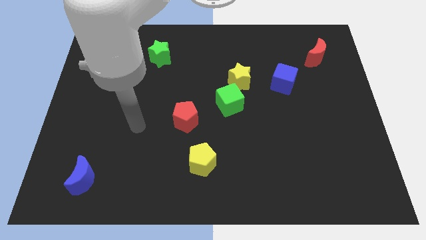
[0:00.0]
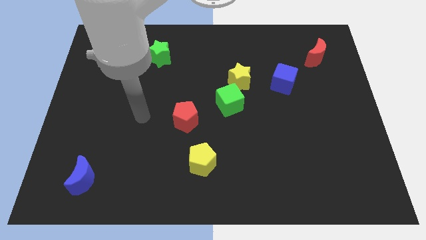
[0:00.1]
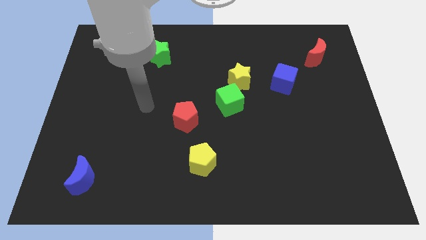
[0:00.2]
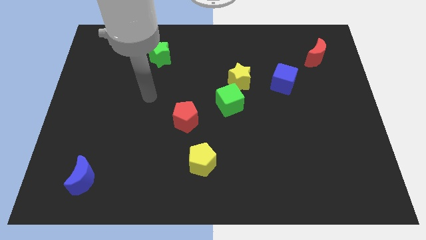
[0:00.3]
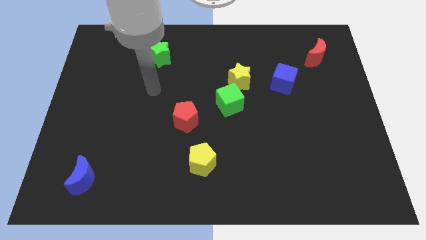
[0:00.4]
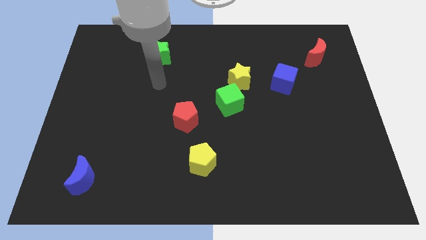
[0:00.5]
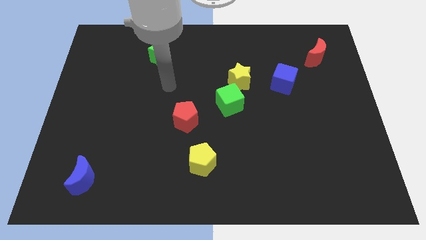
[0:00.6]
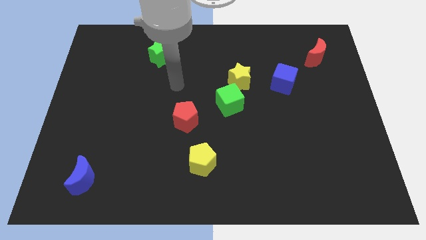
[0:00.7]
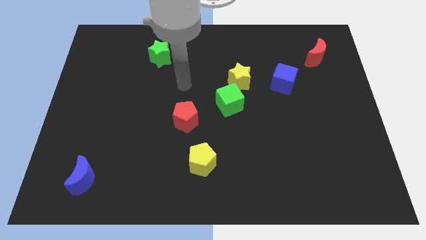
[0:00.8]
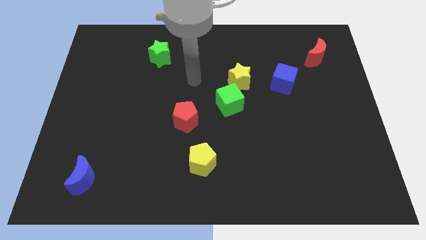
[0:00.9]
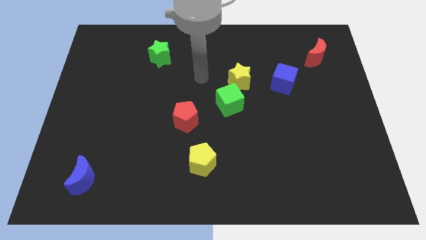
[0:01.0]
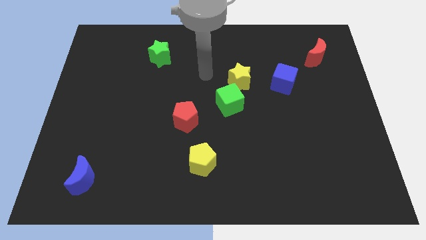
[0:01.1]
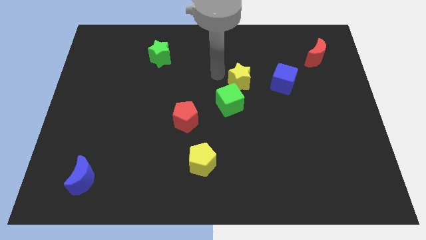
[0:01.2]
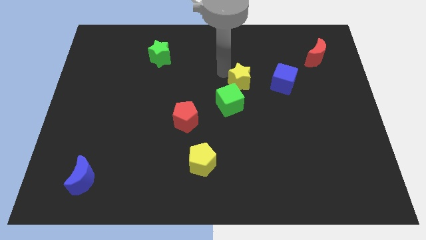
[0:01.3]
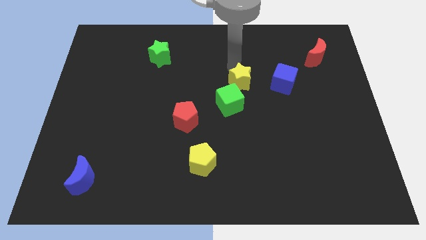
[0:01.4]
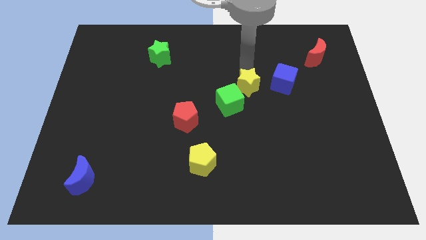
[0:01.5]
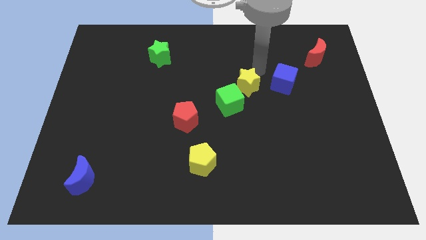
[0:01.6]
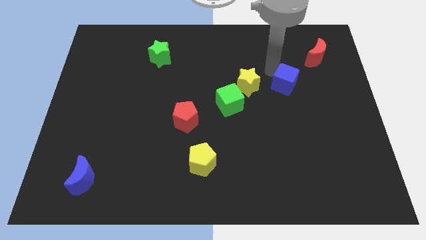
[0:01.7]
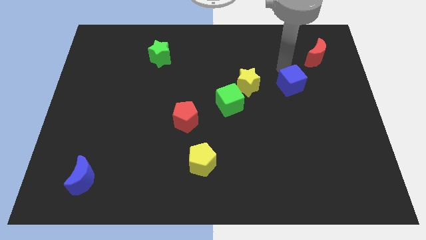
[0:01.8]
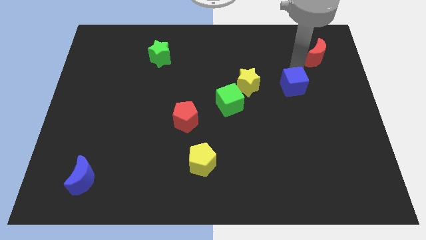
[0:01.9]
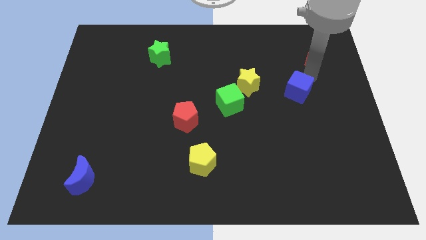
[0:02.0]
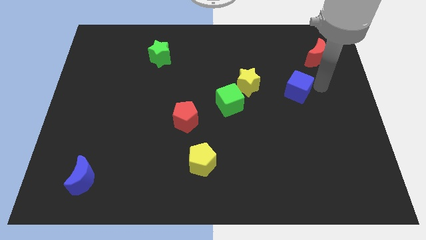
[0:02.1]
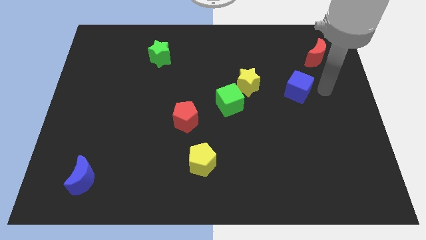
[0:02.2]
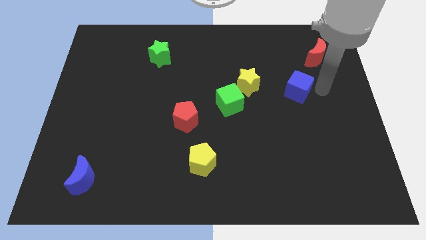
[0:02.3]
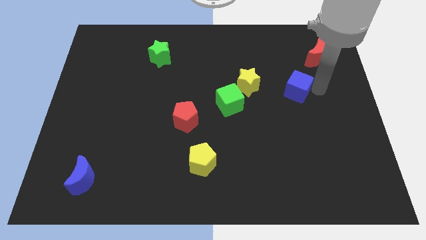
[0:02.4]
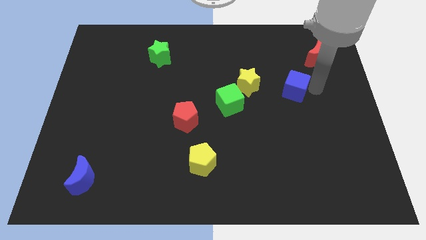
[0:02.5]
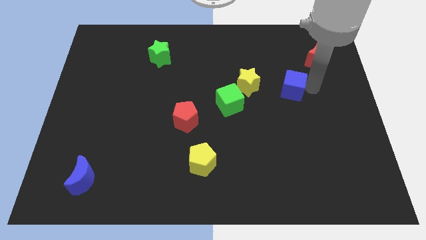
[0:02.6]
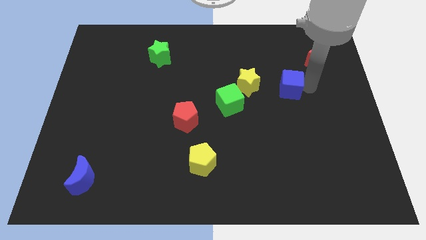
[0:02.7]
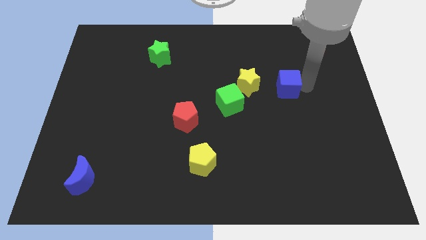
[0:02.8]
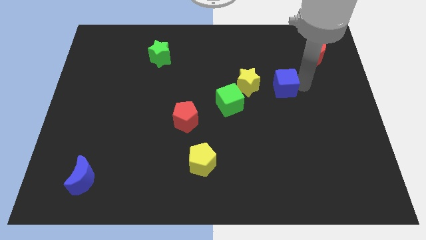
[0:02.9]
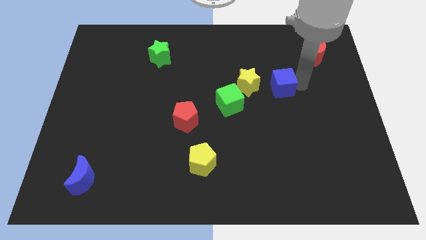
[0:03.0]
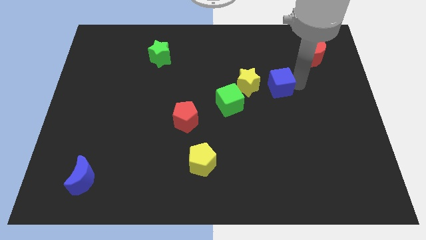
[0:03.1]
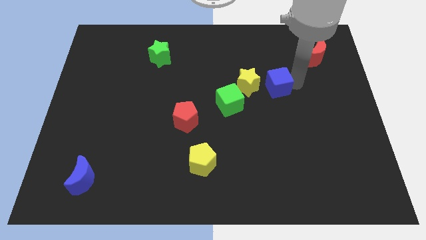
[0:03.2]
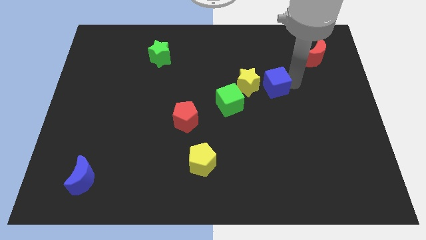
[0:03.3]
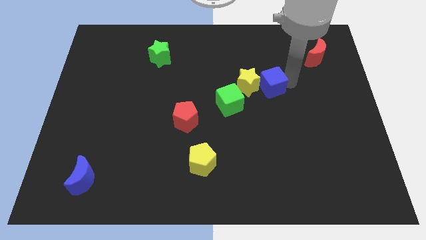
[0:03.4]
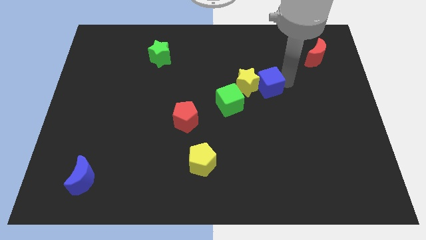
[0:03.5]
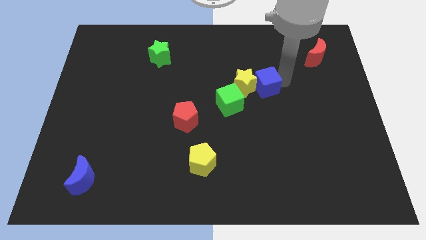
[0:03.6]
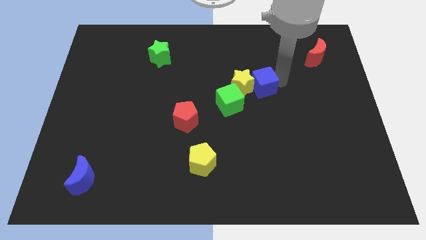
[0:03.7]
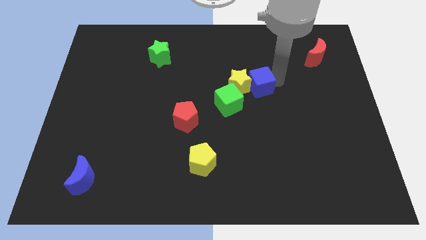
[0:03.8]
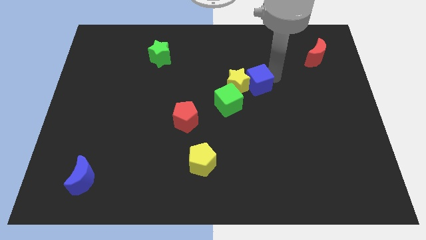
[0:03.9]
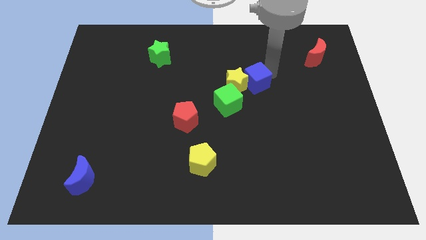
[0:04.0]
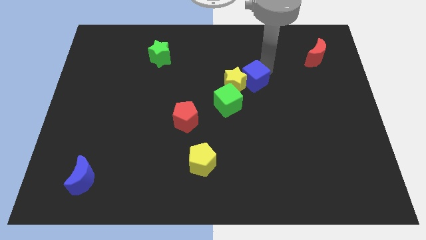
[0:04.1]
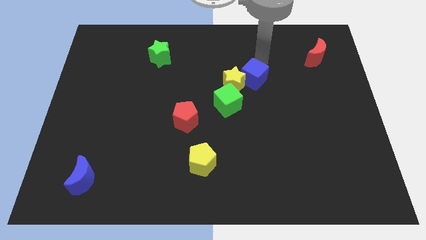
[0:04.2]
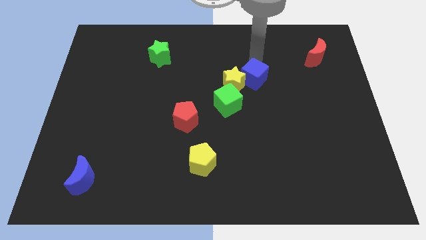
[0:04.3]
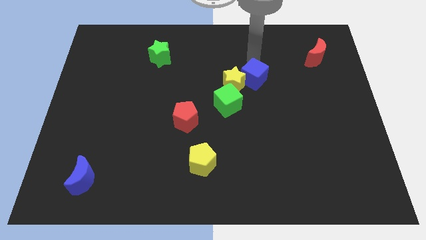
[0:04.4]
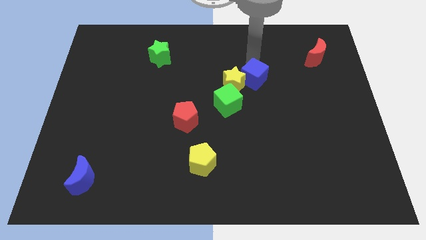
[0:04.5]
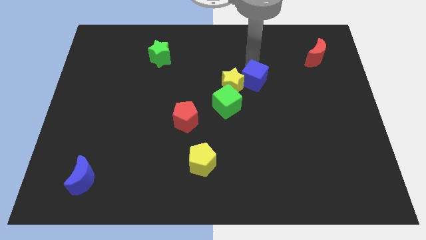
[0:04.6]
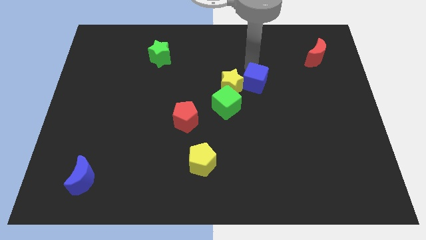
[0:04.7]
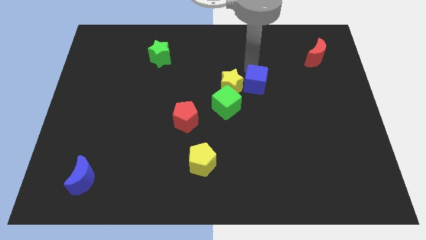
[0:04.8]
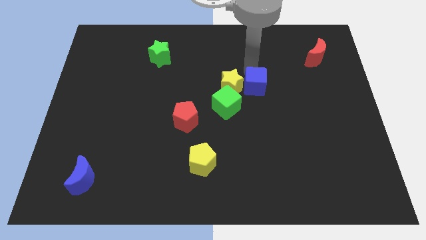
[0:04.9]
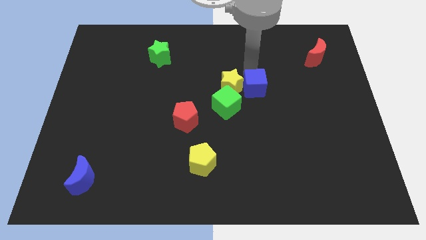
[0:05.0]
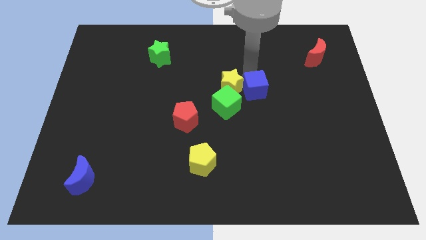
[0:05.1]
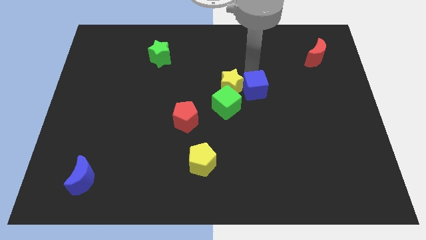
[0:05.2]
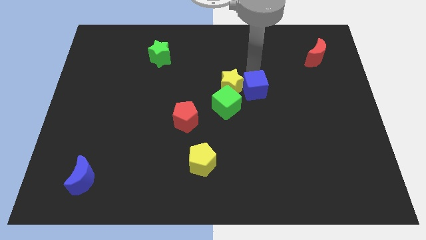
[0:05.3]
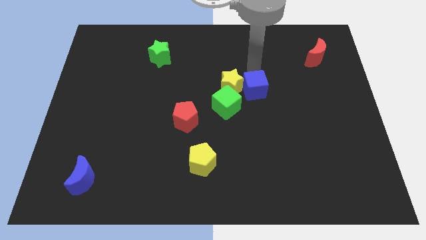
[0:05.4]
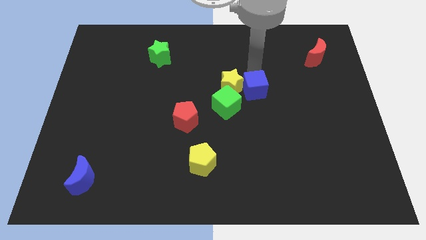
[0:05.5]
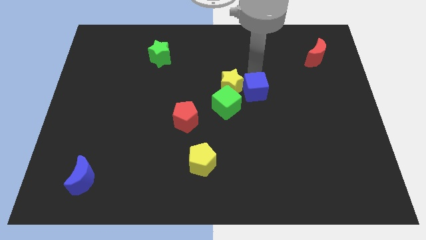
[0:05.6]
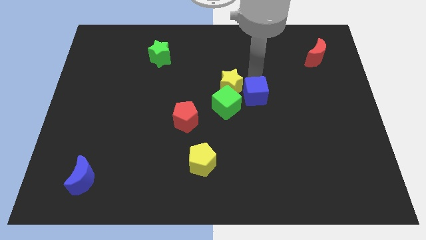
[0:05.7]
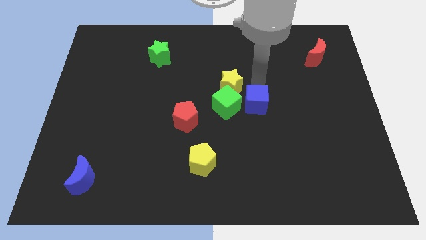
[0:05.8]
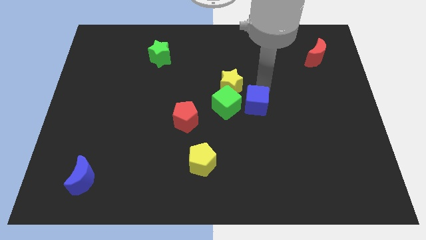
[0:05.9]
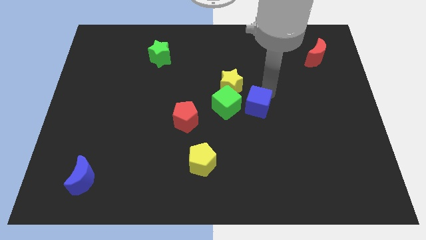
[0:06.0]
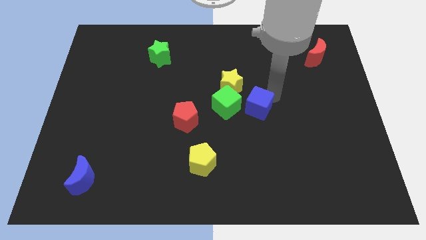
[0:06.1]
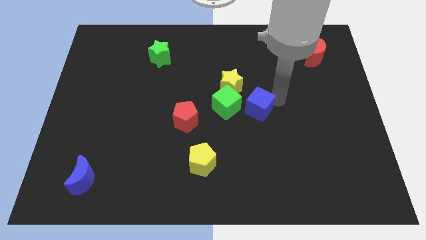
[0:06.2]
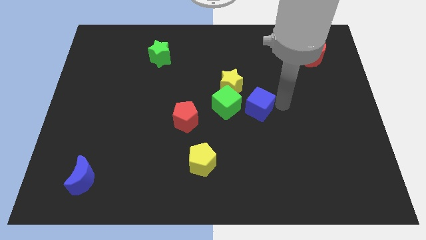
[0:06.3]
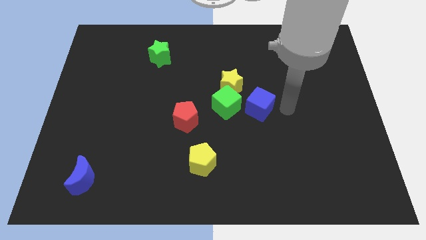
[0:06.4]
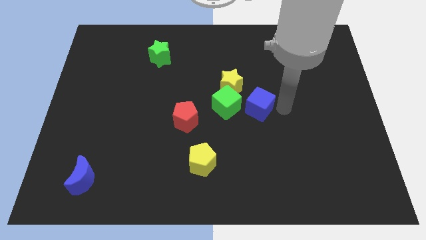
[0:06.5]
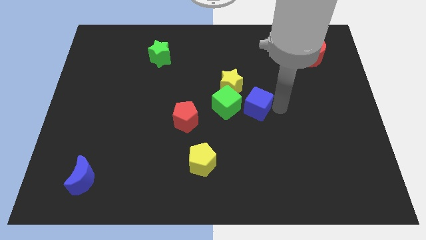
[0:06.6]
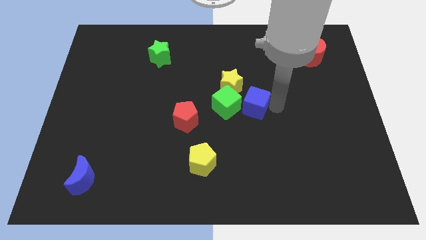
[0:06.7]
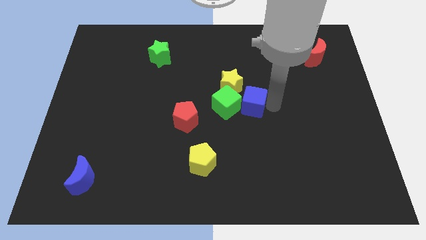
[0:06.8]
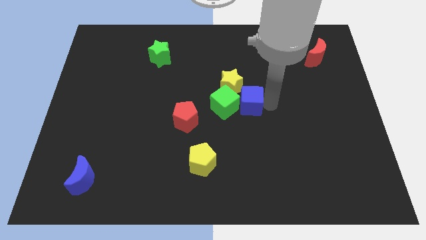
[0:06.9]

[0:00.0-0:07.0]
move the blue cube to the green cube
